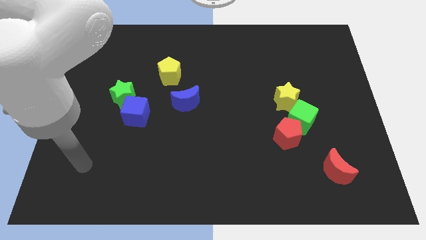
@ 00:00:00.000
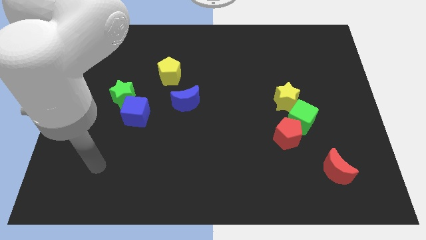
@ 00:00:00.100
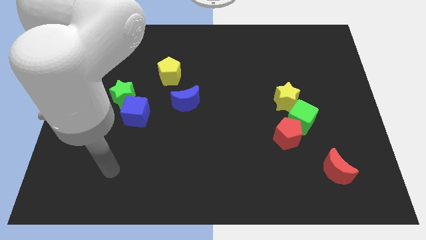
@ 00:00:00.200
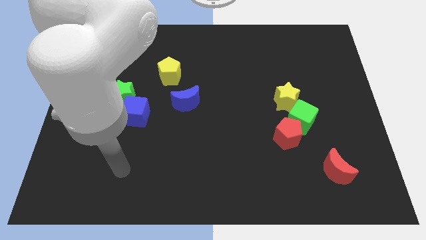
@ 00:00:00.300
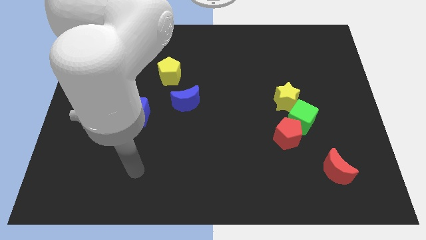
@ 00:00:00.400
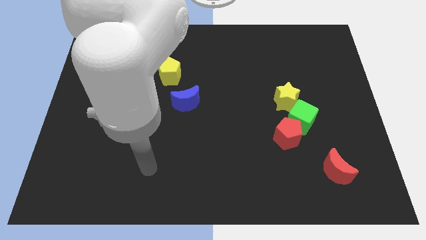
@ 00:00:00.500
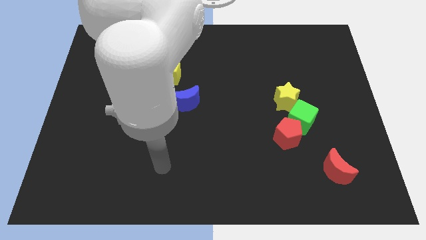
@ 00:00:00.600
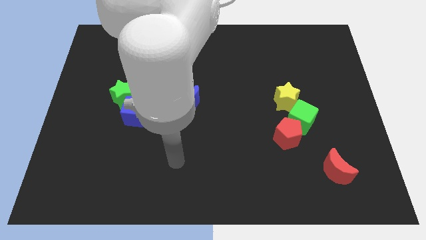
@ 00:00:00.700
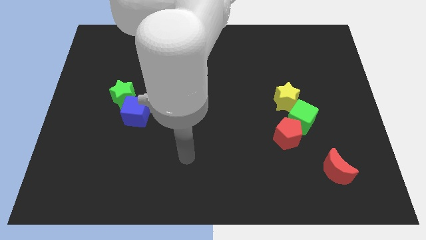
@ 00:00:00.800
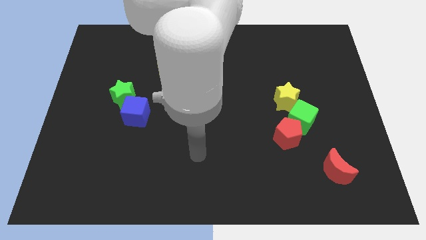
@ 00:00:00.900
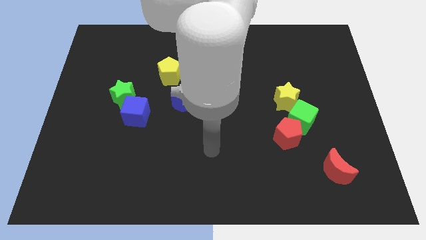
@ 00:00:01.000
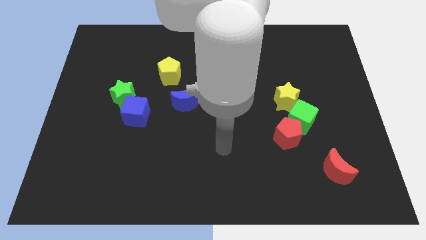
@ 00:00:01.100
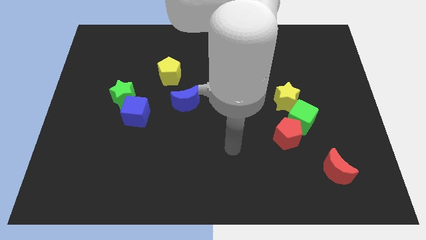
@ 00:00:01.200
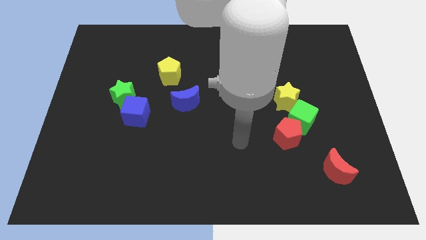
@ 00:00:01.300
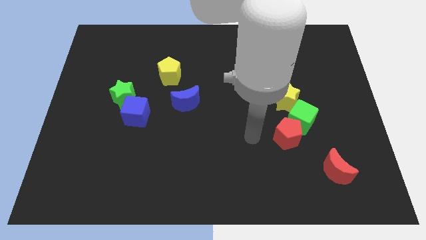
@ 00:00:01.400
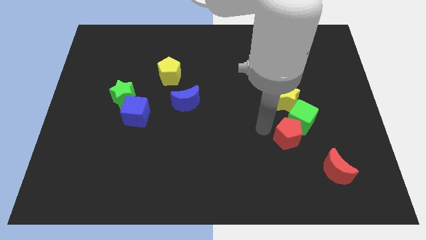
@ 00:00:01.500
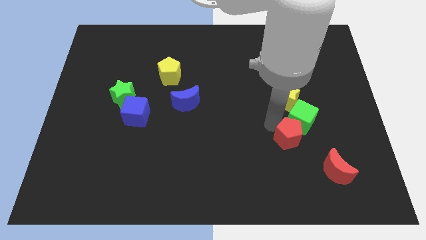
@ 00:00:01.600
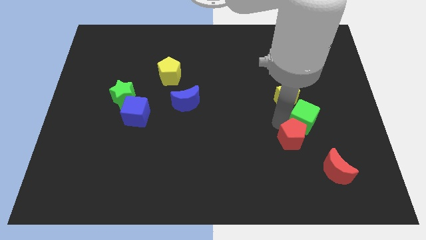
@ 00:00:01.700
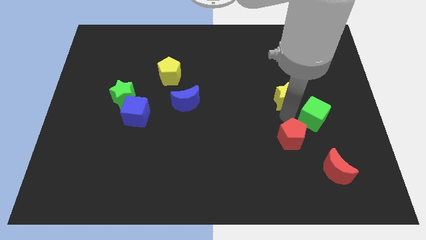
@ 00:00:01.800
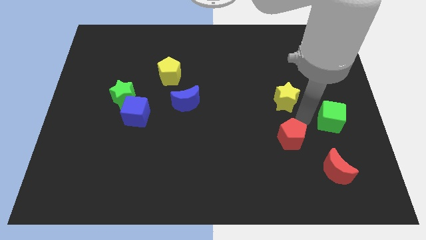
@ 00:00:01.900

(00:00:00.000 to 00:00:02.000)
move the red pentagon away from the green cube

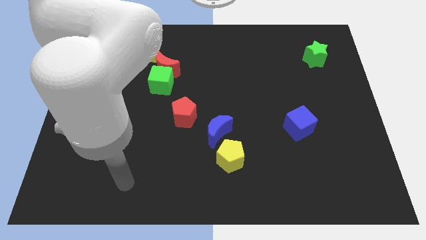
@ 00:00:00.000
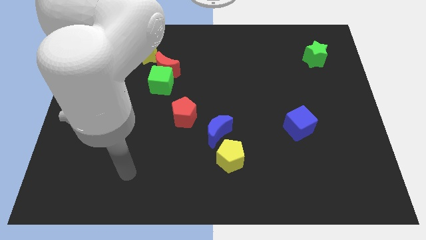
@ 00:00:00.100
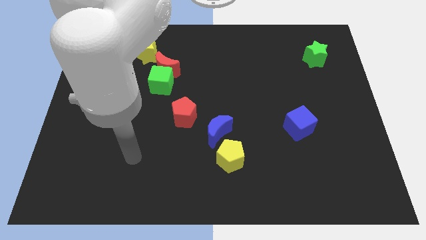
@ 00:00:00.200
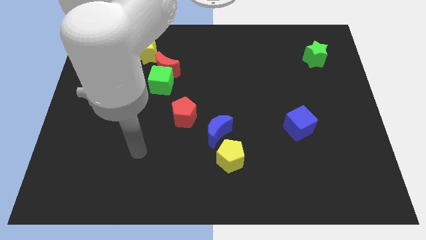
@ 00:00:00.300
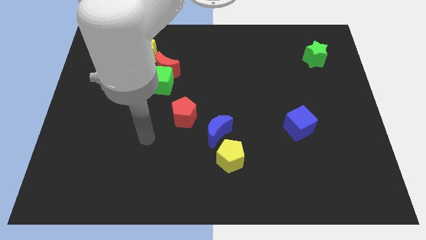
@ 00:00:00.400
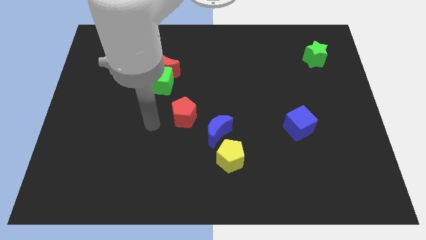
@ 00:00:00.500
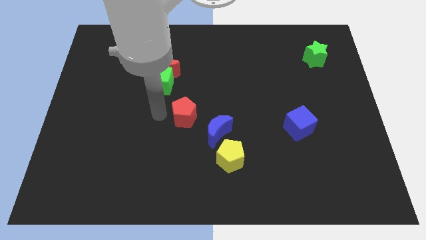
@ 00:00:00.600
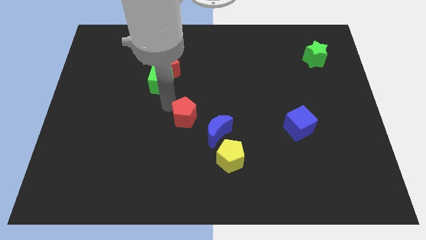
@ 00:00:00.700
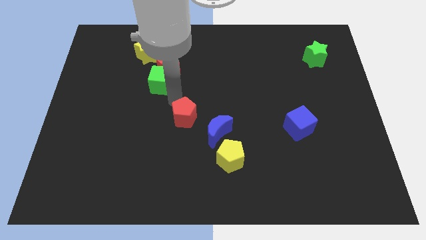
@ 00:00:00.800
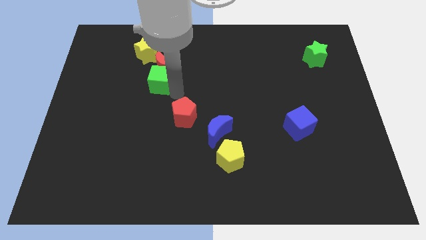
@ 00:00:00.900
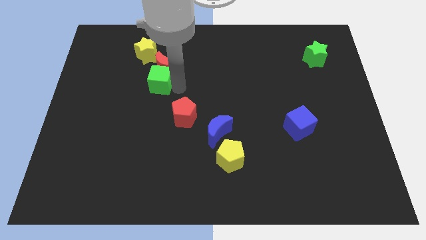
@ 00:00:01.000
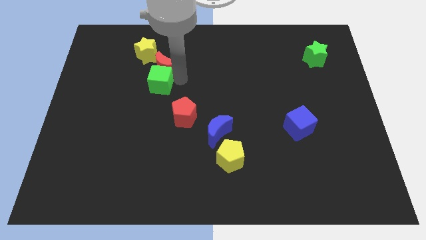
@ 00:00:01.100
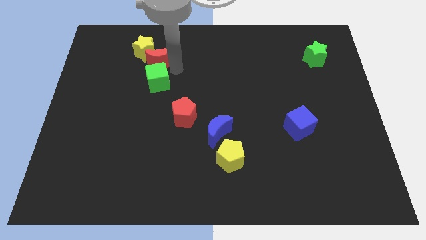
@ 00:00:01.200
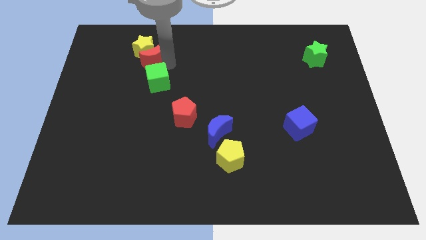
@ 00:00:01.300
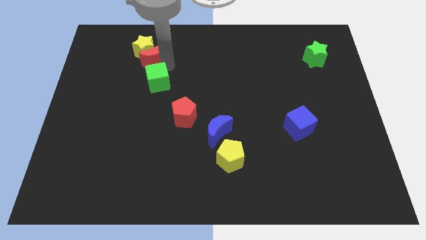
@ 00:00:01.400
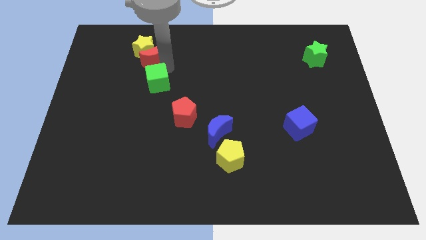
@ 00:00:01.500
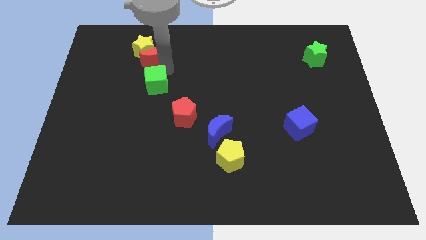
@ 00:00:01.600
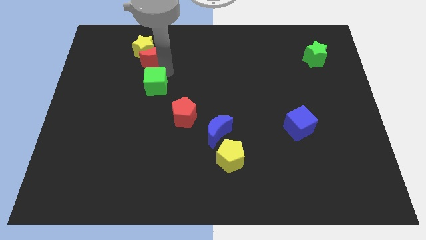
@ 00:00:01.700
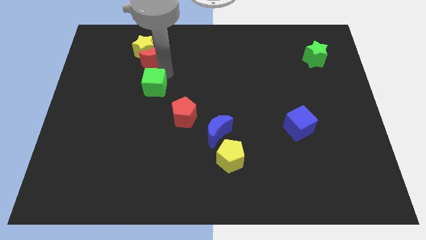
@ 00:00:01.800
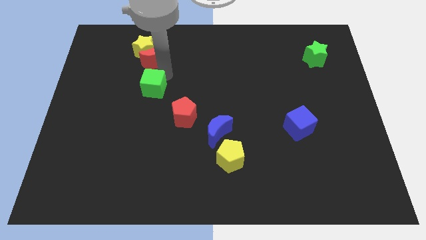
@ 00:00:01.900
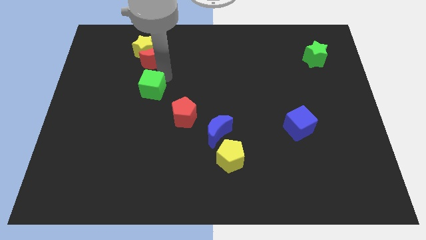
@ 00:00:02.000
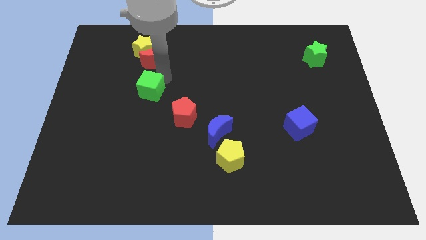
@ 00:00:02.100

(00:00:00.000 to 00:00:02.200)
pull the green cube apart from the red moon

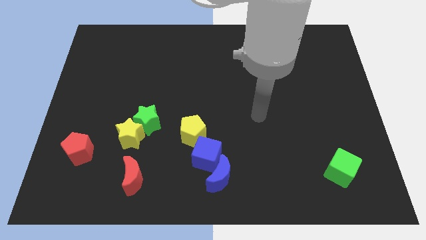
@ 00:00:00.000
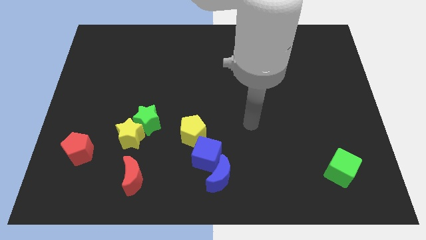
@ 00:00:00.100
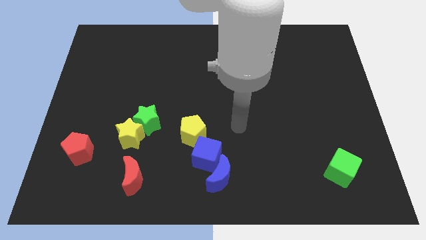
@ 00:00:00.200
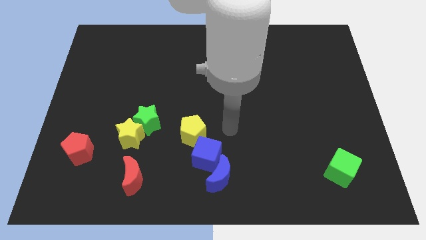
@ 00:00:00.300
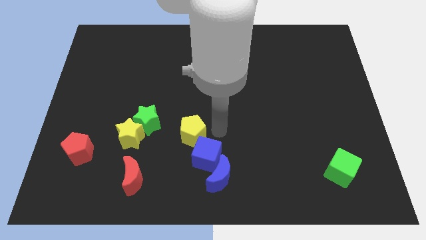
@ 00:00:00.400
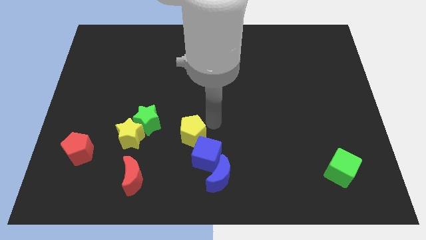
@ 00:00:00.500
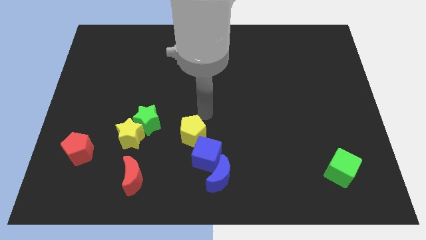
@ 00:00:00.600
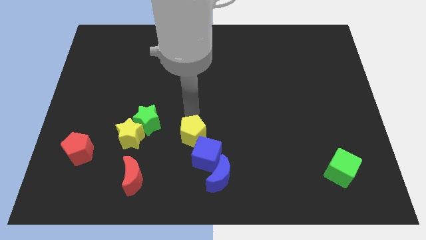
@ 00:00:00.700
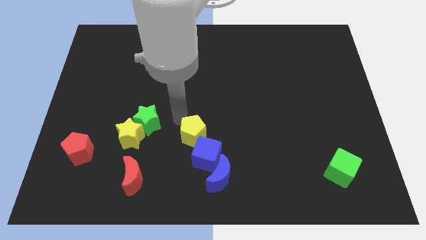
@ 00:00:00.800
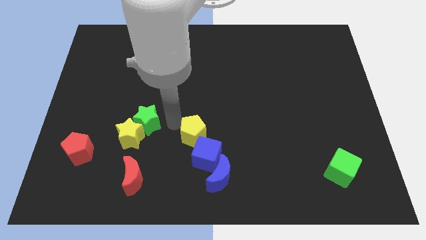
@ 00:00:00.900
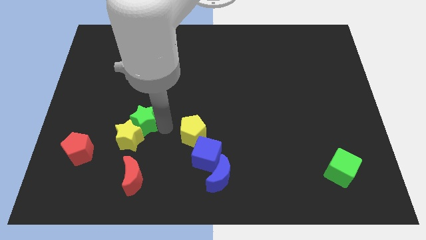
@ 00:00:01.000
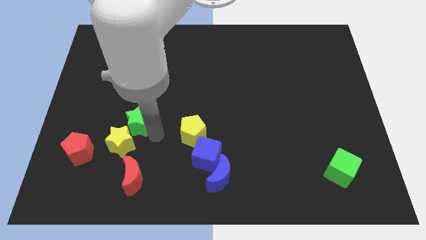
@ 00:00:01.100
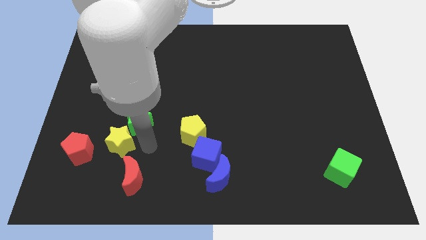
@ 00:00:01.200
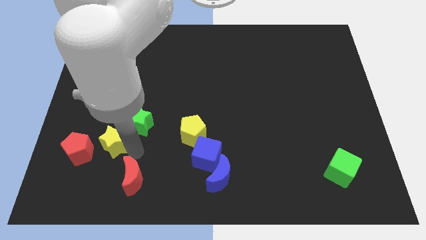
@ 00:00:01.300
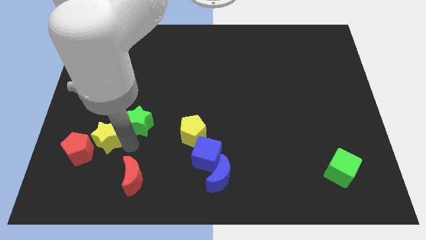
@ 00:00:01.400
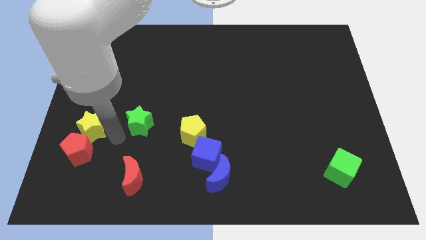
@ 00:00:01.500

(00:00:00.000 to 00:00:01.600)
separate the green star from the yellow star

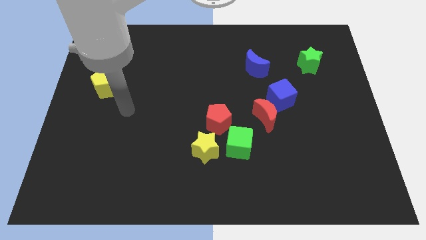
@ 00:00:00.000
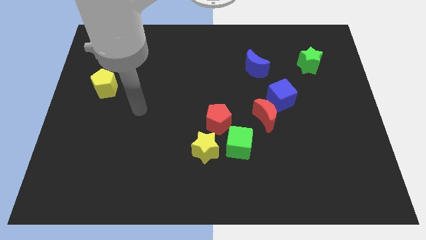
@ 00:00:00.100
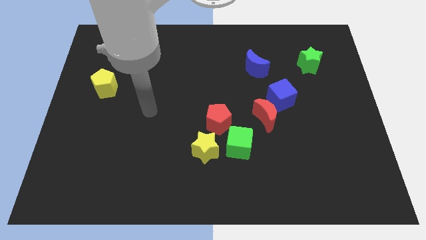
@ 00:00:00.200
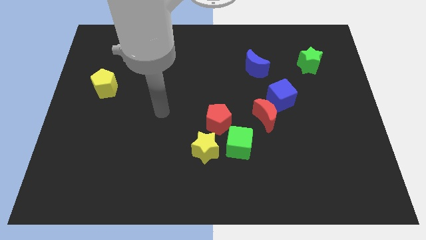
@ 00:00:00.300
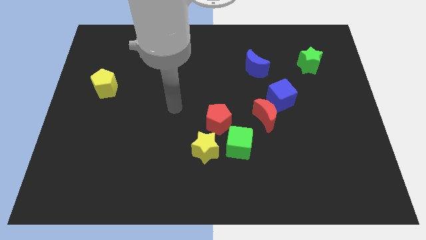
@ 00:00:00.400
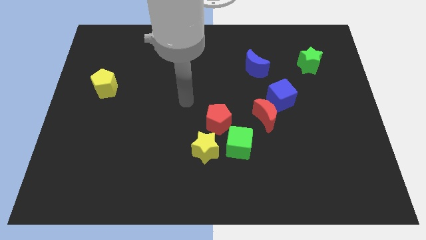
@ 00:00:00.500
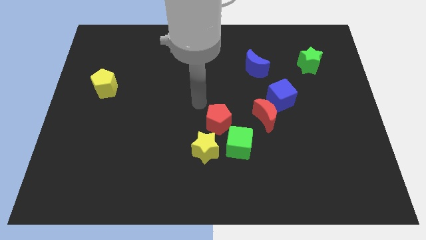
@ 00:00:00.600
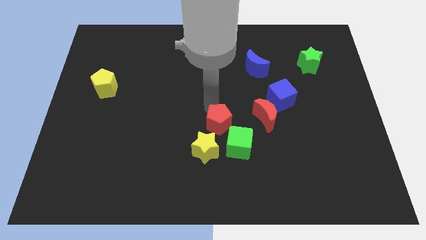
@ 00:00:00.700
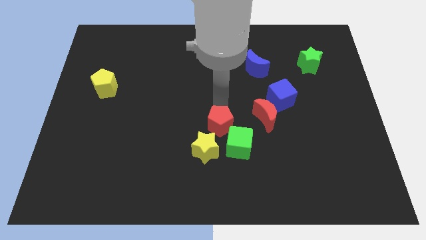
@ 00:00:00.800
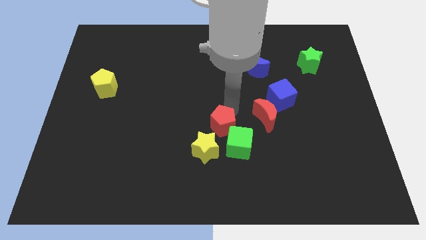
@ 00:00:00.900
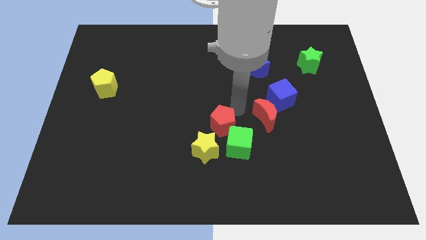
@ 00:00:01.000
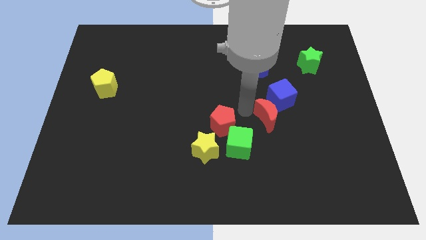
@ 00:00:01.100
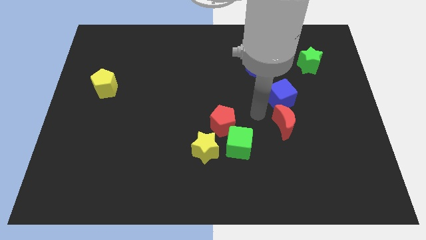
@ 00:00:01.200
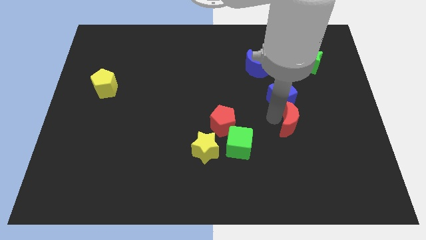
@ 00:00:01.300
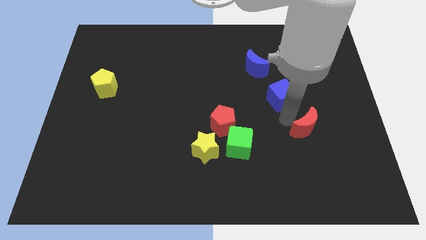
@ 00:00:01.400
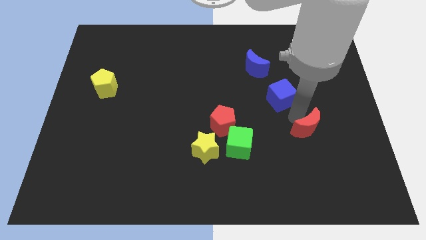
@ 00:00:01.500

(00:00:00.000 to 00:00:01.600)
separate the blue cube from the red moon

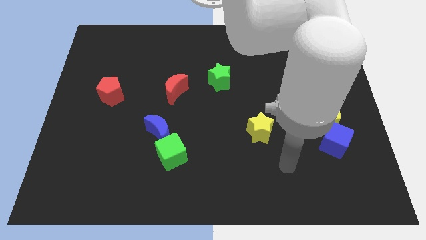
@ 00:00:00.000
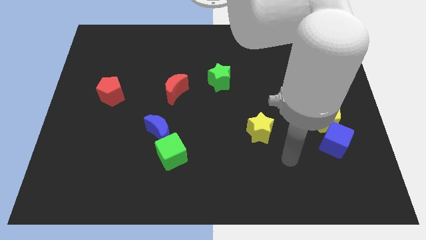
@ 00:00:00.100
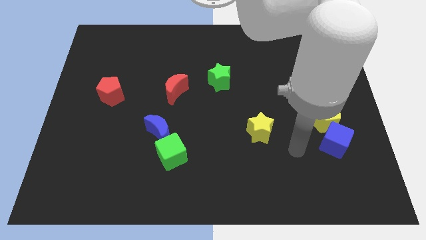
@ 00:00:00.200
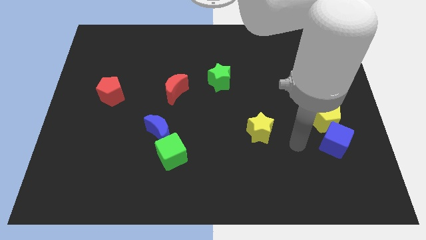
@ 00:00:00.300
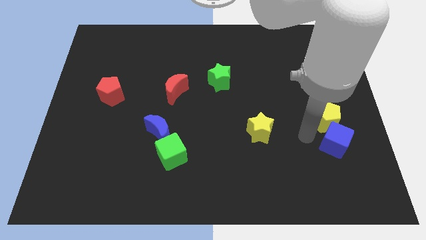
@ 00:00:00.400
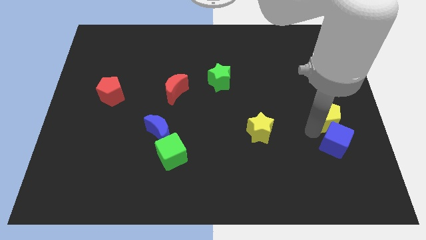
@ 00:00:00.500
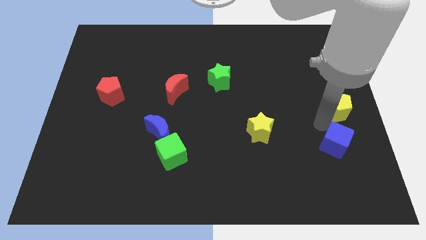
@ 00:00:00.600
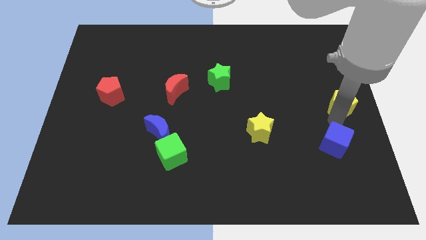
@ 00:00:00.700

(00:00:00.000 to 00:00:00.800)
separate the blue cube from the yellow pentagon

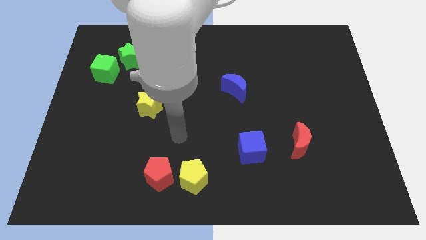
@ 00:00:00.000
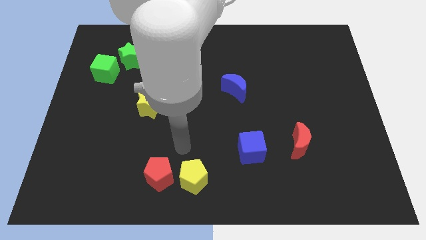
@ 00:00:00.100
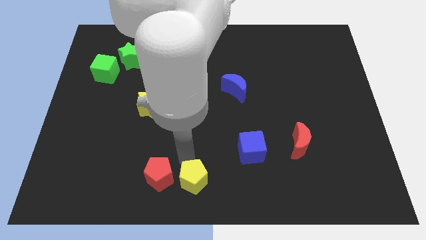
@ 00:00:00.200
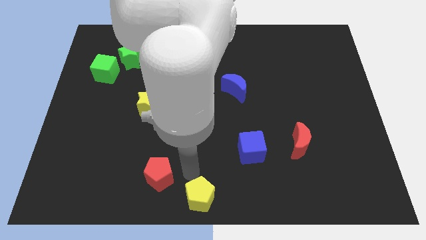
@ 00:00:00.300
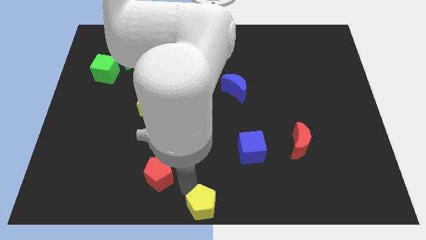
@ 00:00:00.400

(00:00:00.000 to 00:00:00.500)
separate the red pentagon from the yellow pentagon

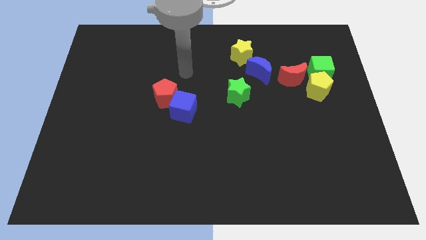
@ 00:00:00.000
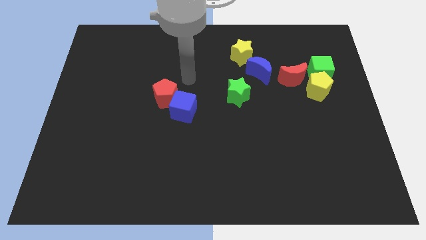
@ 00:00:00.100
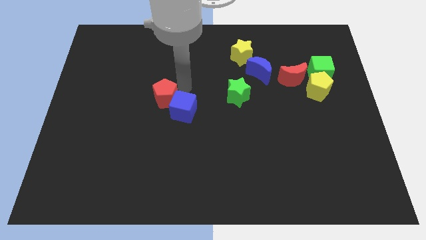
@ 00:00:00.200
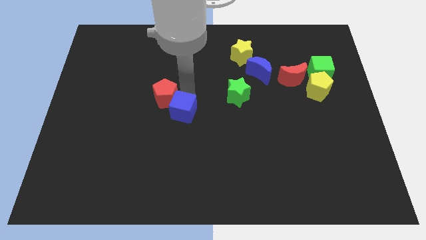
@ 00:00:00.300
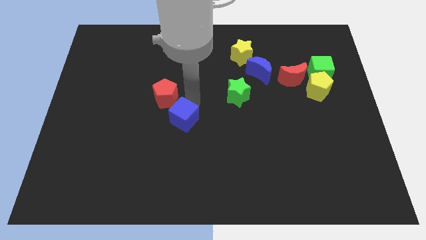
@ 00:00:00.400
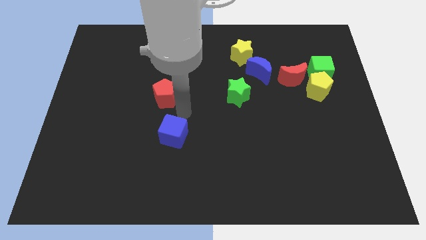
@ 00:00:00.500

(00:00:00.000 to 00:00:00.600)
separate the red pentagon from the blue cube
